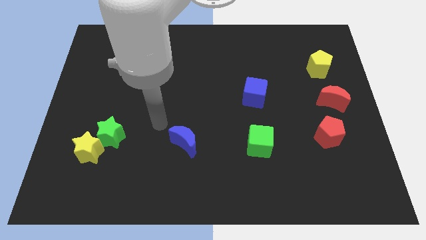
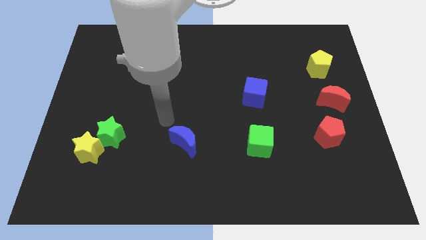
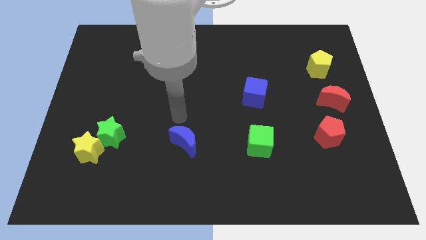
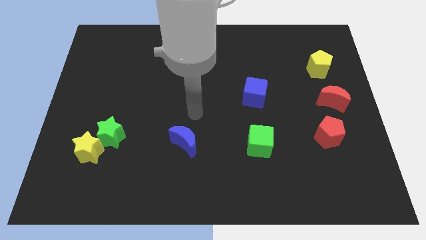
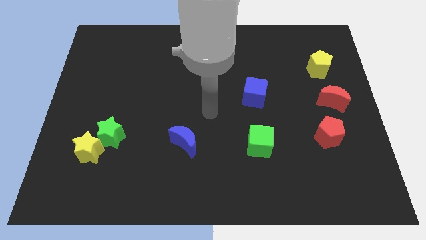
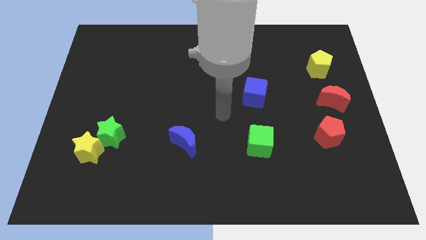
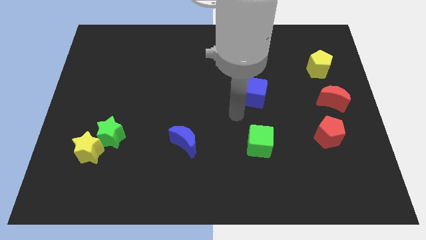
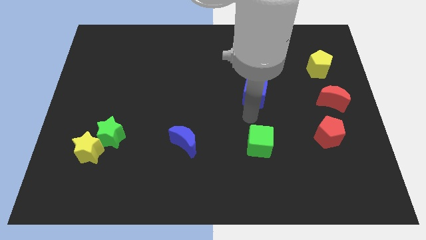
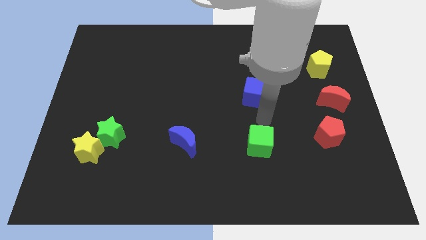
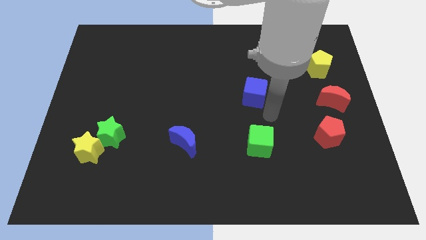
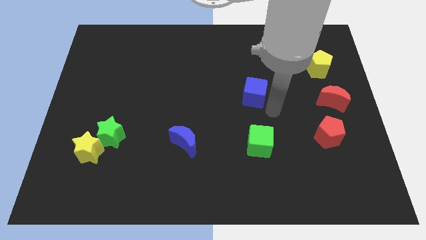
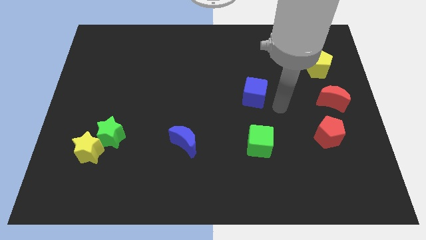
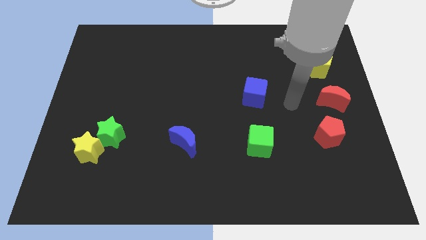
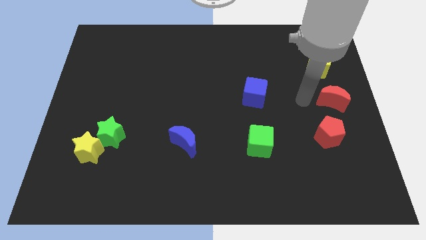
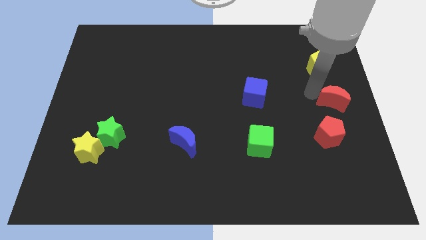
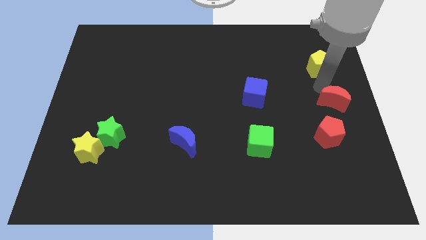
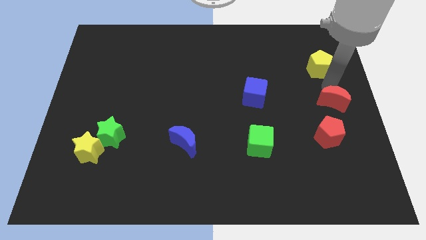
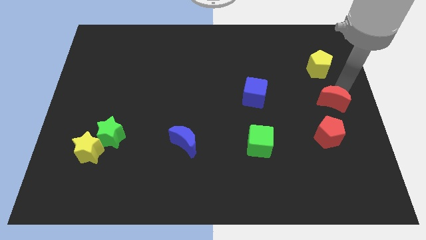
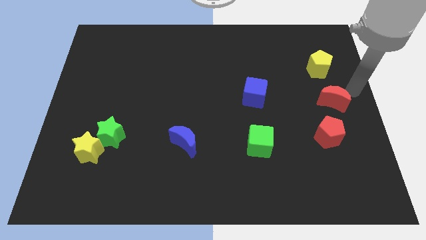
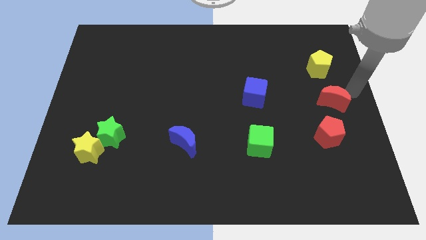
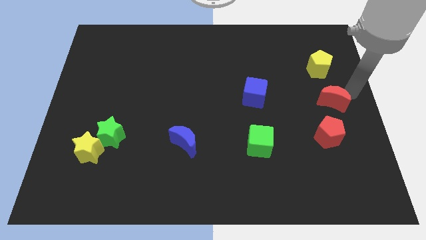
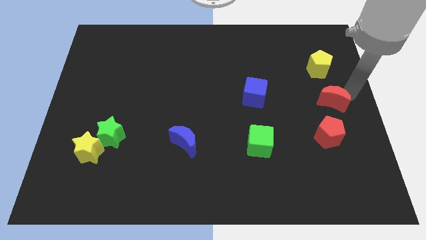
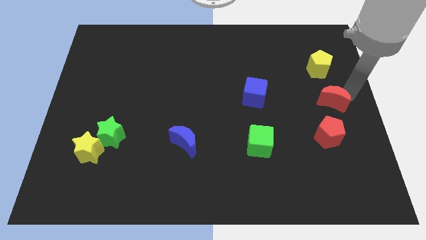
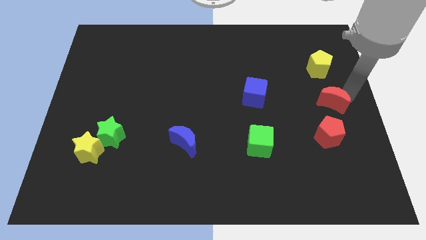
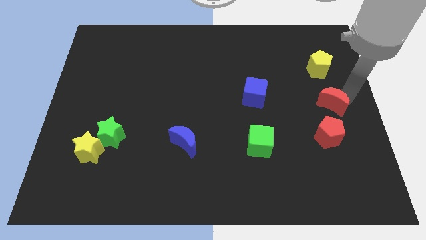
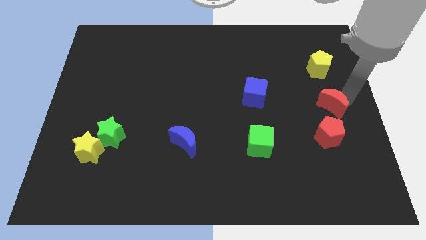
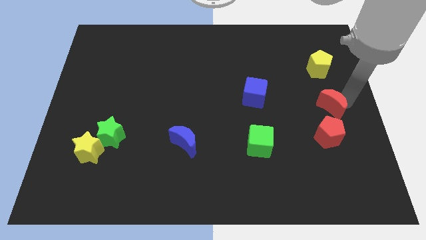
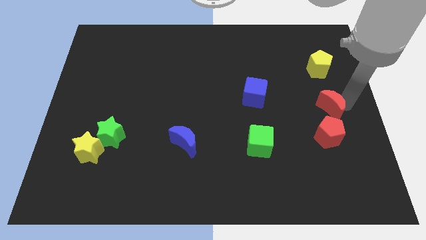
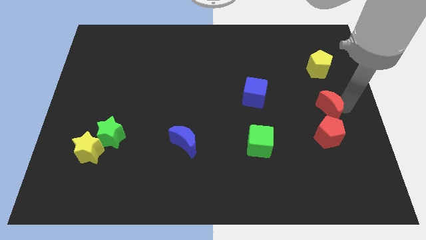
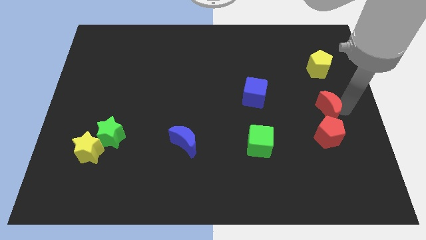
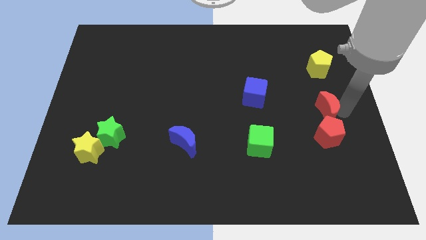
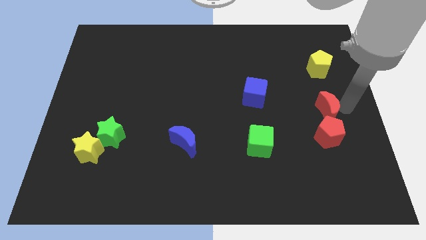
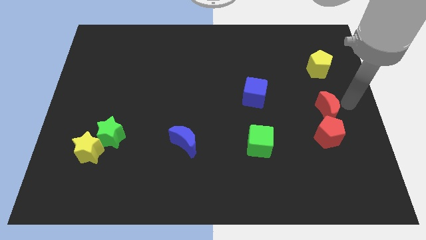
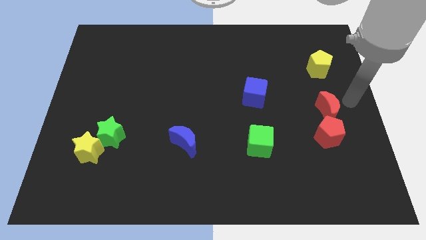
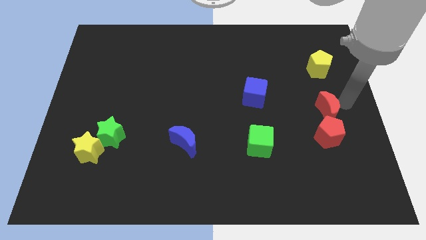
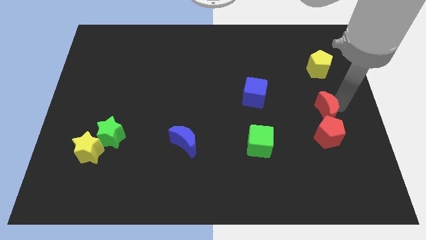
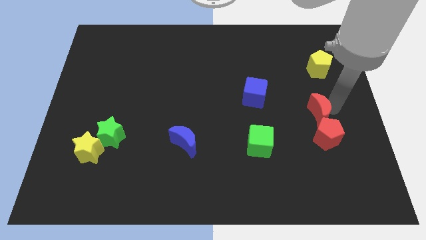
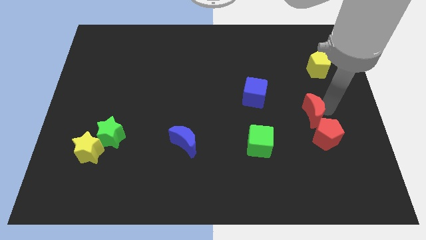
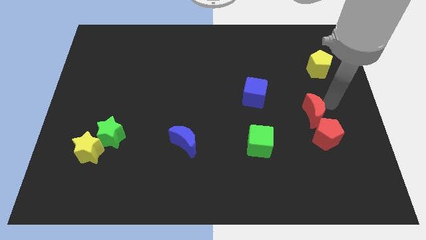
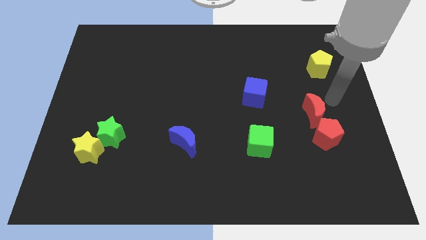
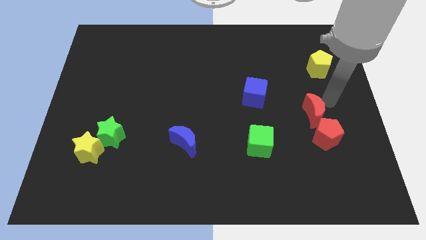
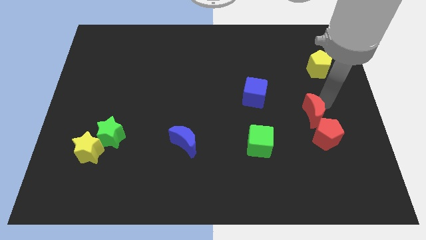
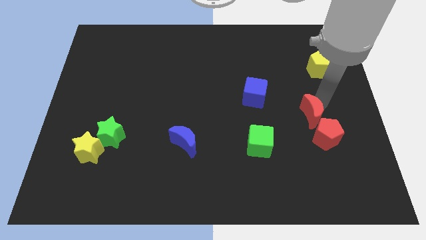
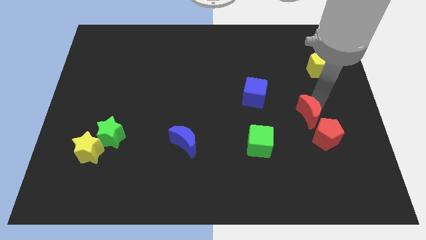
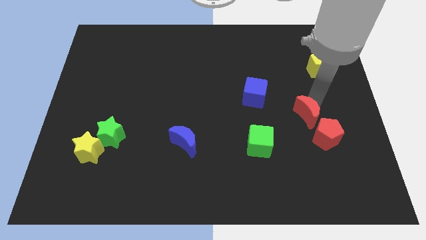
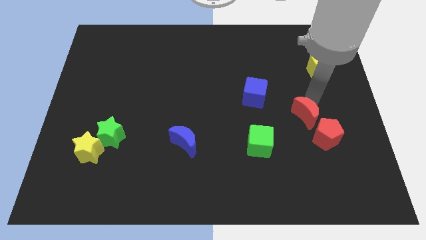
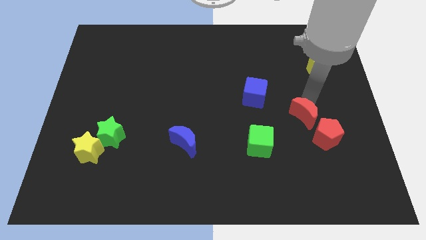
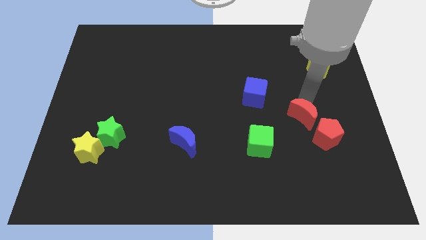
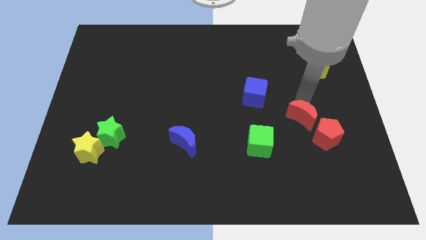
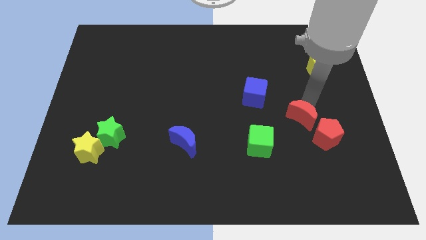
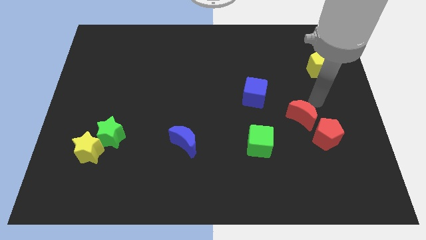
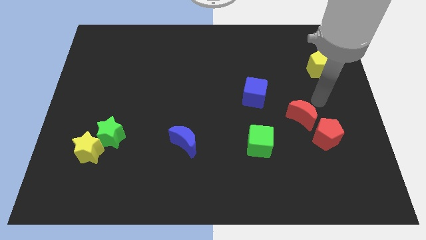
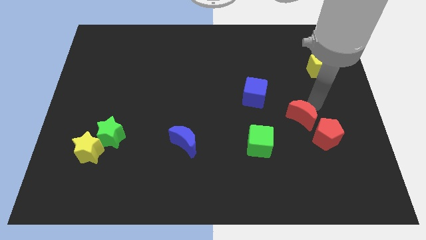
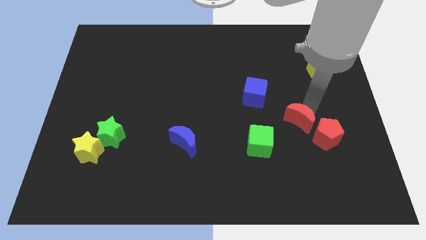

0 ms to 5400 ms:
put the red moon to the left side of the red pentagon

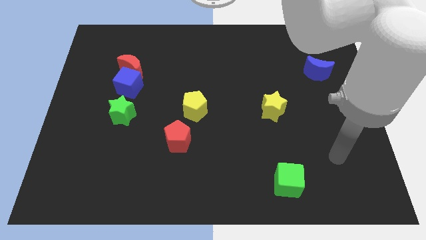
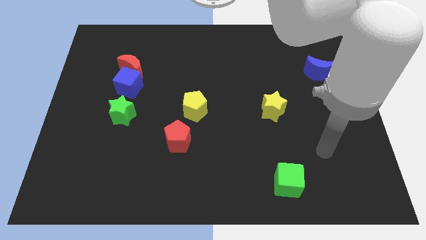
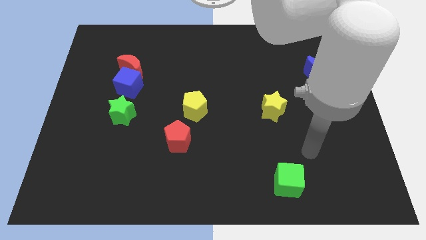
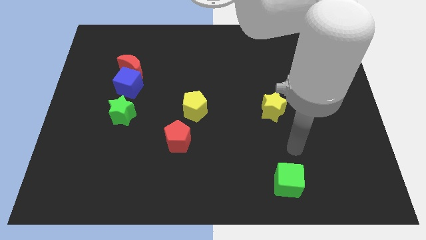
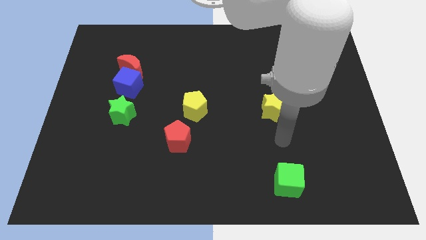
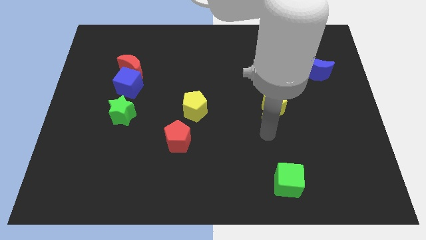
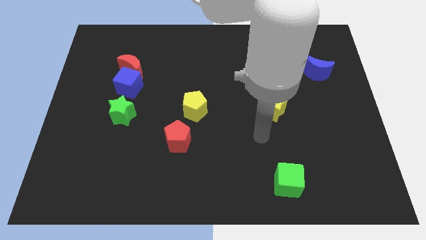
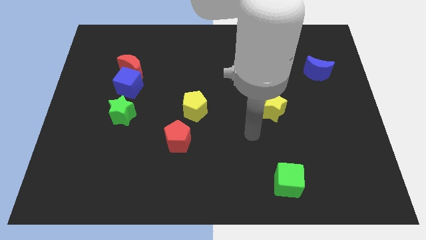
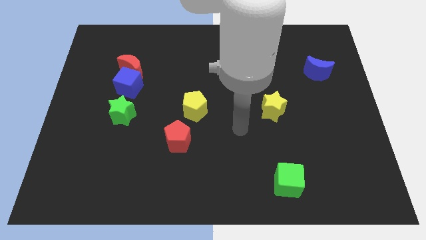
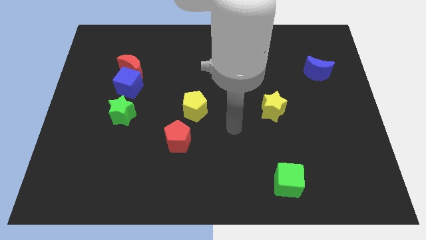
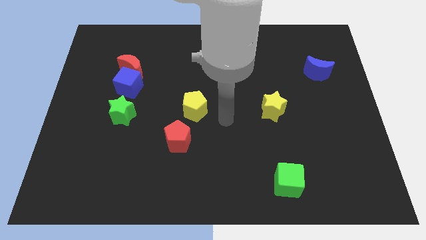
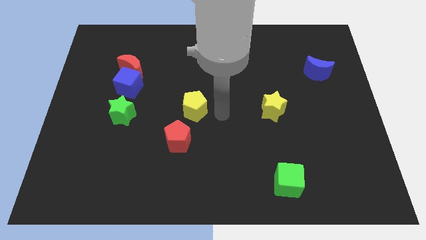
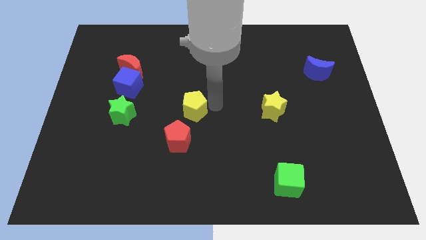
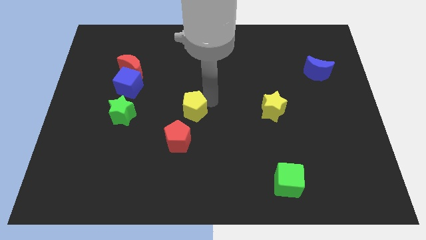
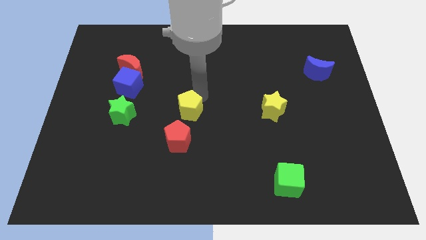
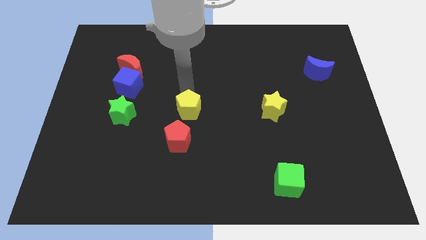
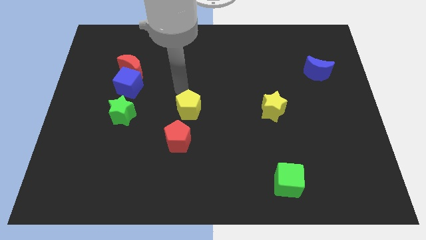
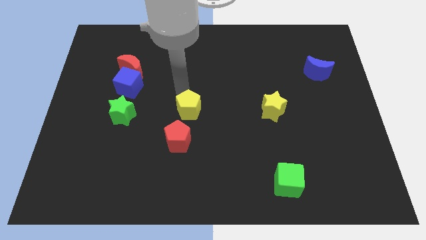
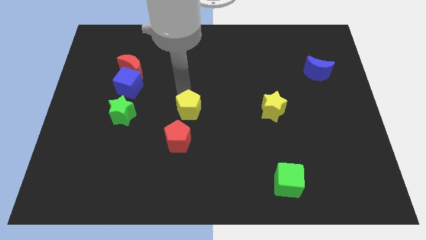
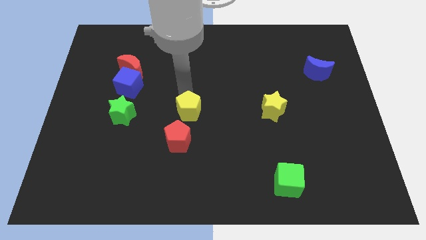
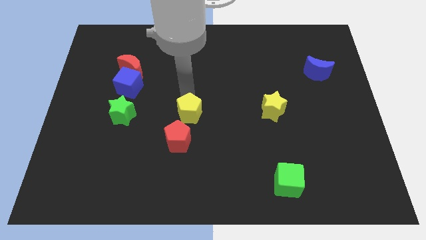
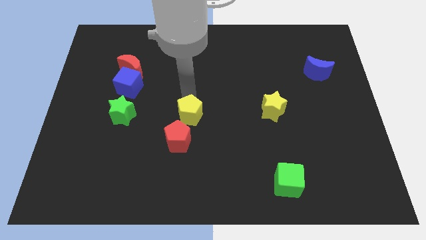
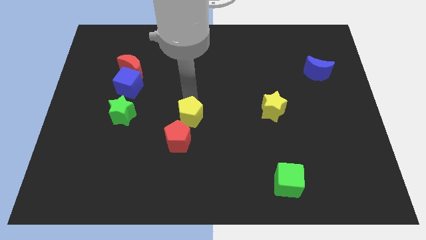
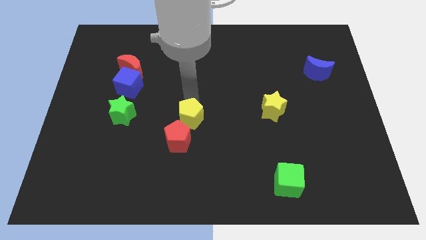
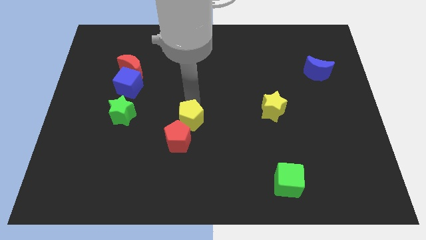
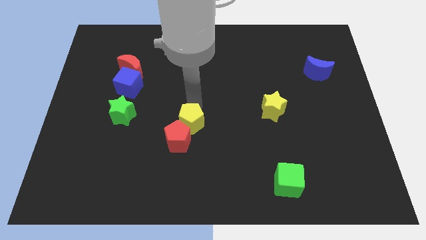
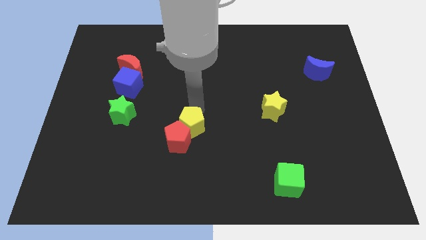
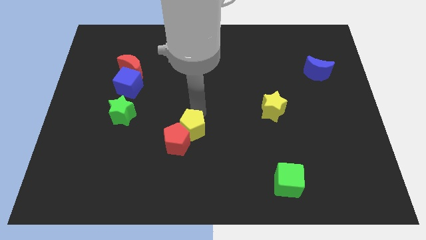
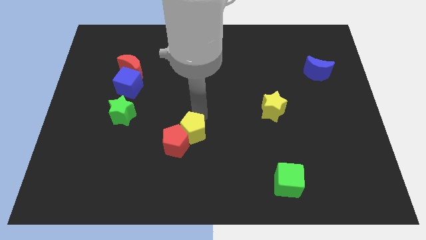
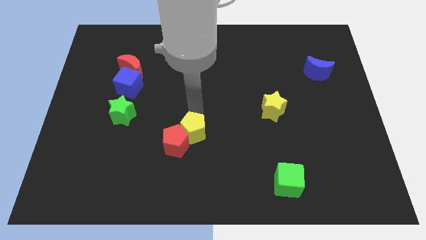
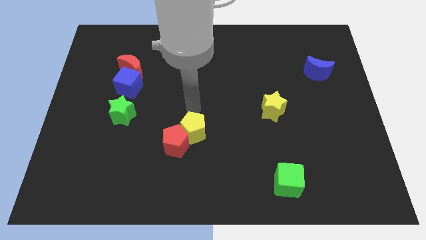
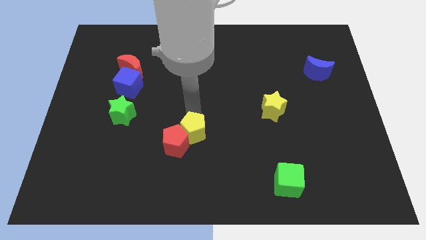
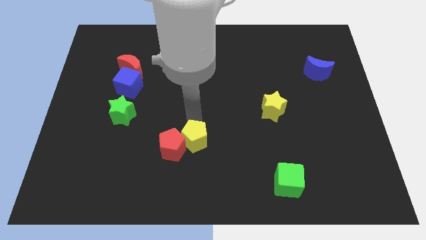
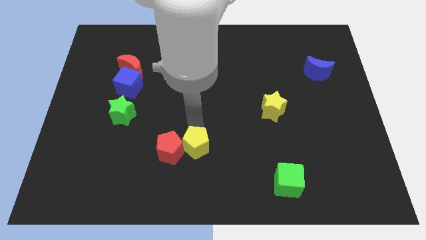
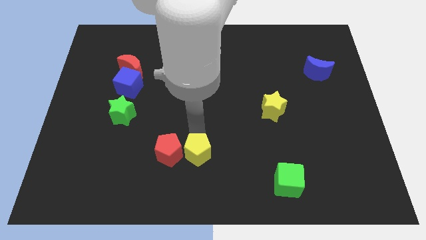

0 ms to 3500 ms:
put the yellow pentagon to the bottom right of the red pentagon
